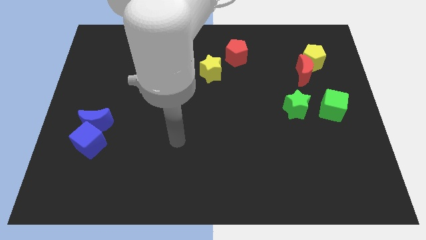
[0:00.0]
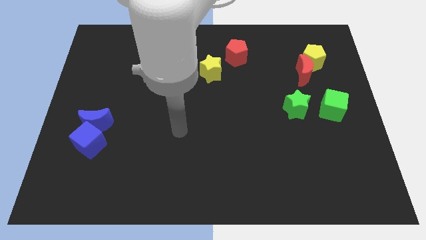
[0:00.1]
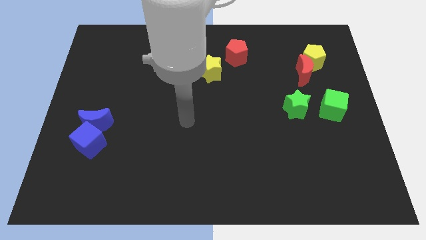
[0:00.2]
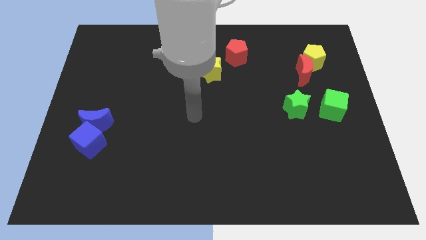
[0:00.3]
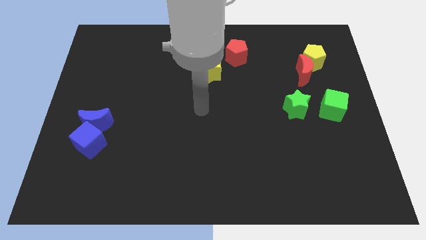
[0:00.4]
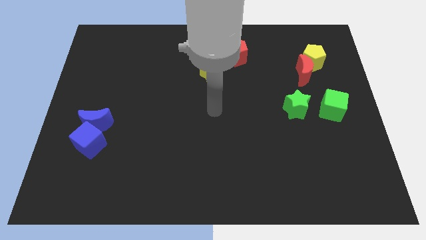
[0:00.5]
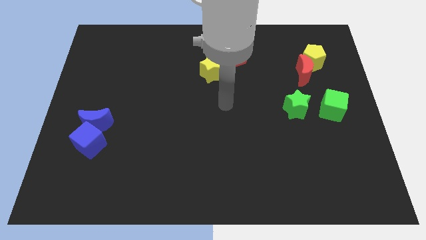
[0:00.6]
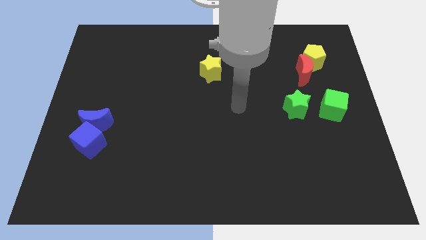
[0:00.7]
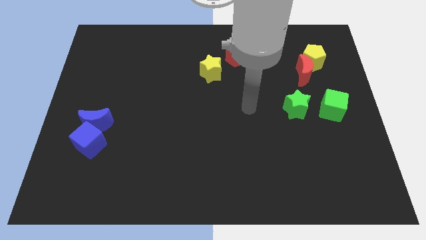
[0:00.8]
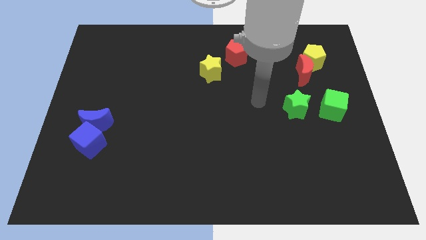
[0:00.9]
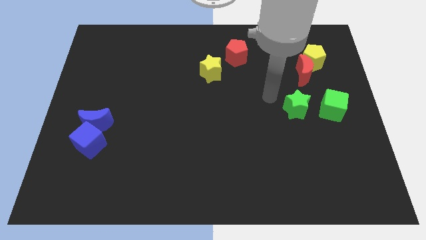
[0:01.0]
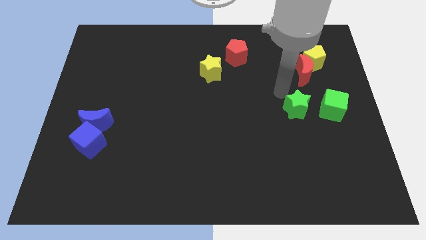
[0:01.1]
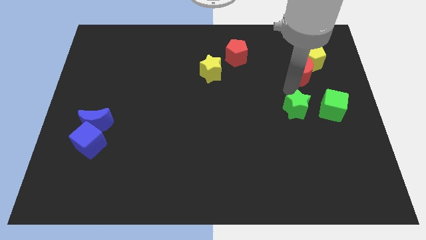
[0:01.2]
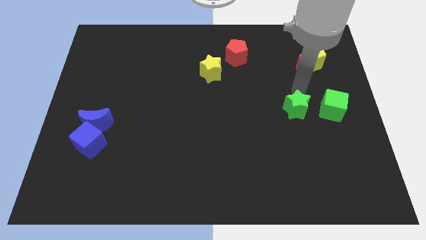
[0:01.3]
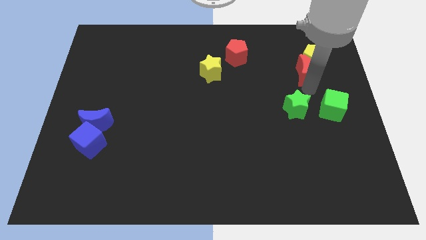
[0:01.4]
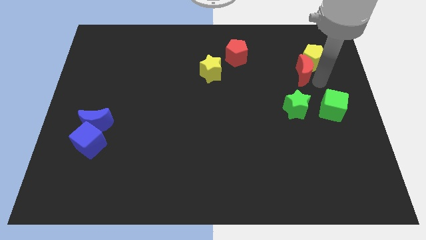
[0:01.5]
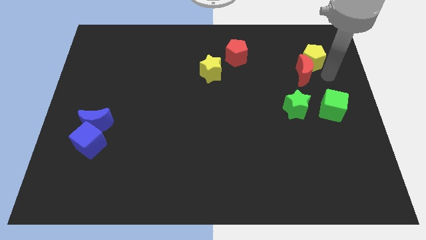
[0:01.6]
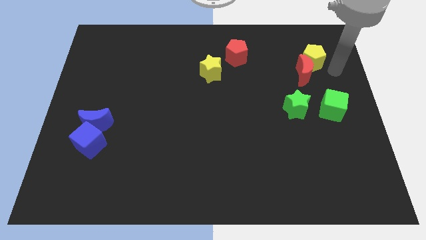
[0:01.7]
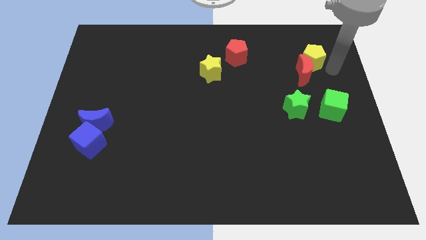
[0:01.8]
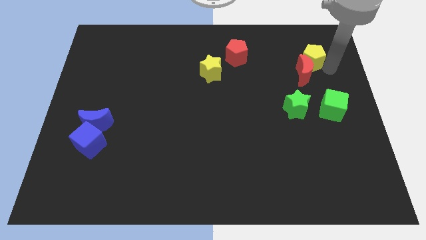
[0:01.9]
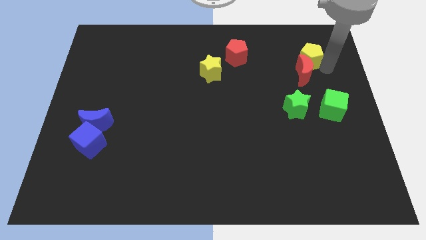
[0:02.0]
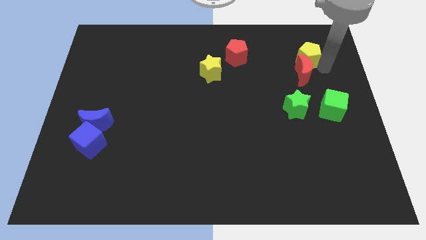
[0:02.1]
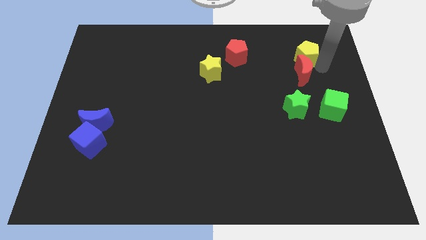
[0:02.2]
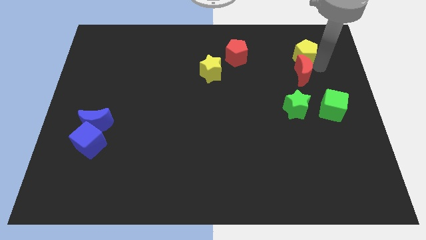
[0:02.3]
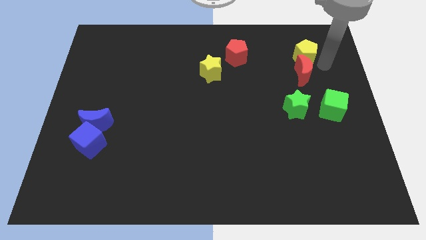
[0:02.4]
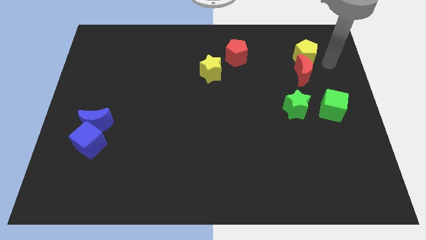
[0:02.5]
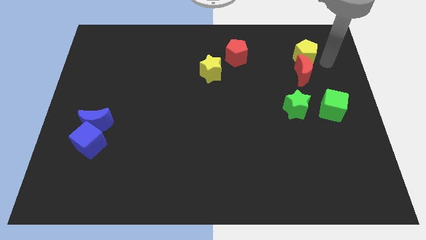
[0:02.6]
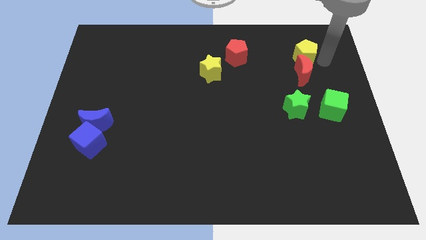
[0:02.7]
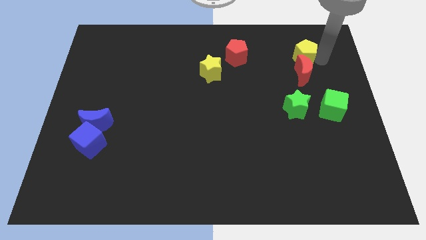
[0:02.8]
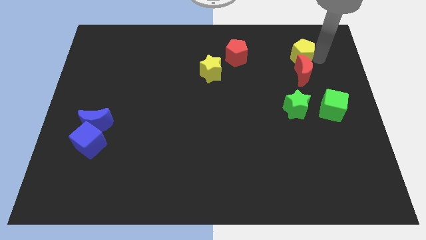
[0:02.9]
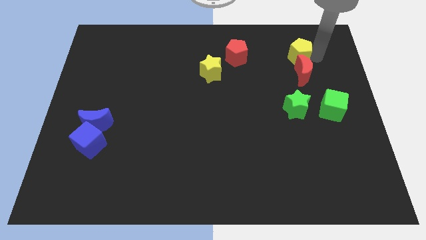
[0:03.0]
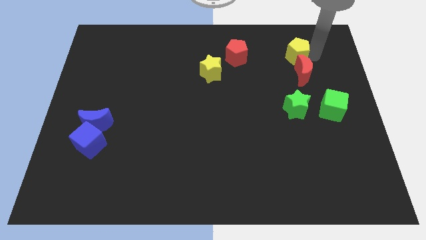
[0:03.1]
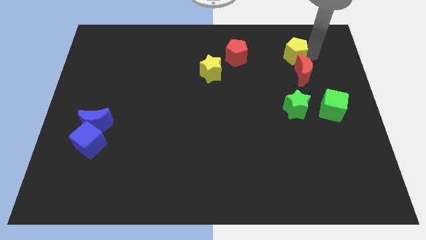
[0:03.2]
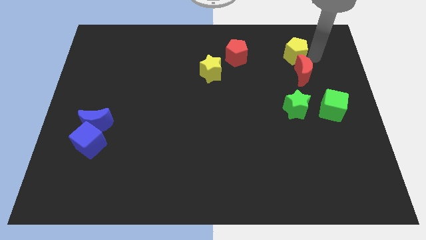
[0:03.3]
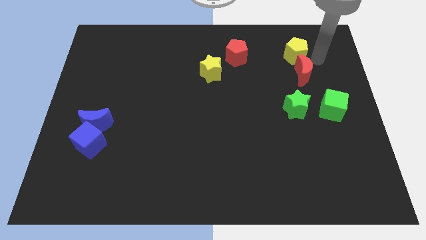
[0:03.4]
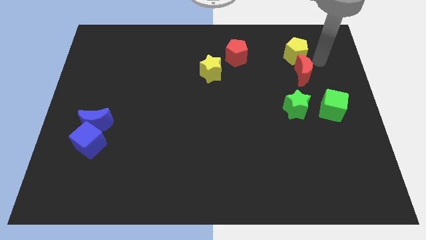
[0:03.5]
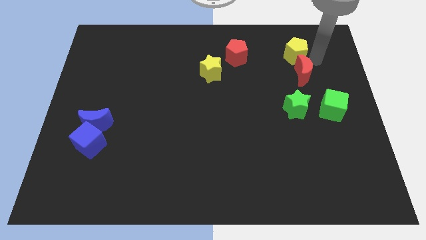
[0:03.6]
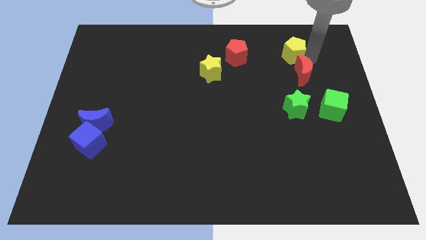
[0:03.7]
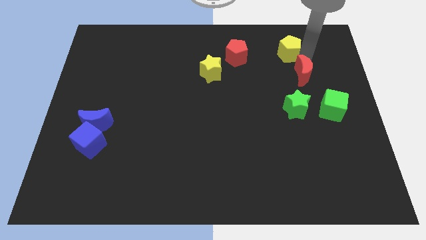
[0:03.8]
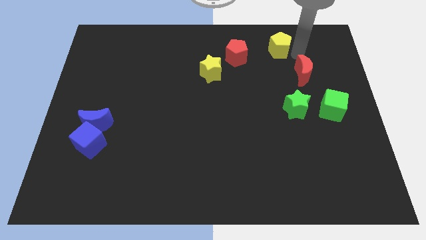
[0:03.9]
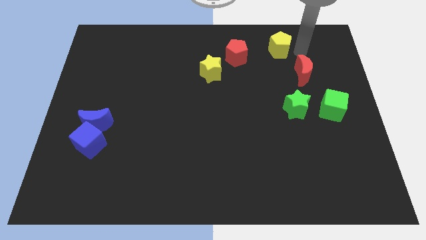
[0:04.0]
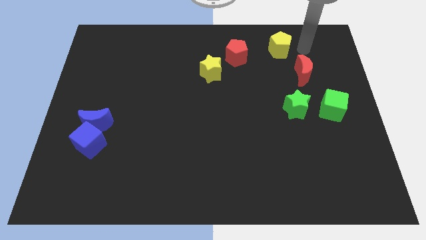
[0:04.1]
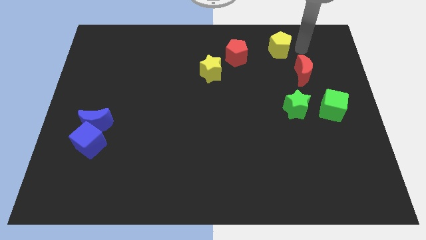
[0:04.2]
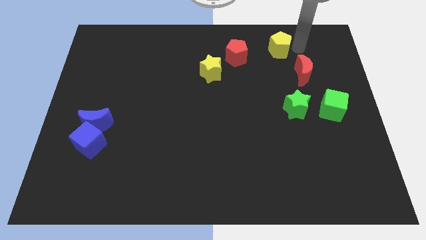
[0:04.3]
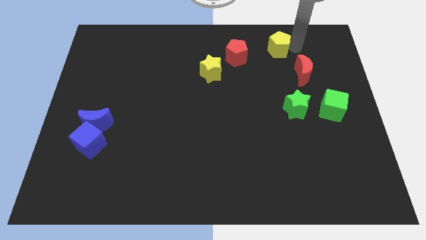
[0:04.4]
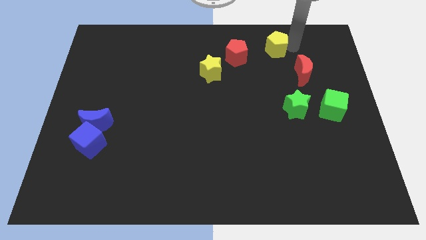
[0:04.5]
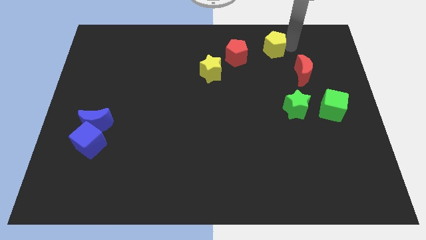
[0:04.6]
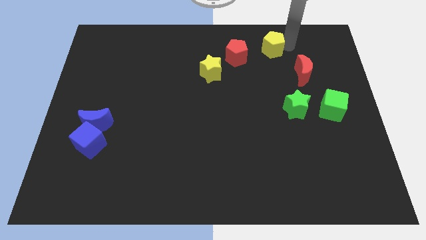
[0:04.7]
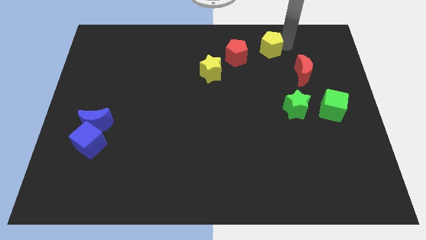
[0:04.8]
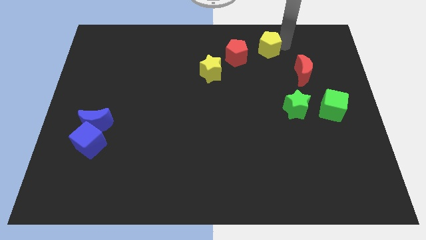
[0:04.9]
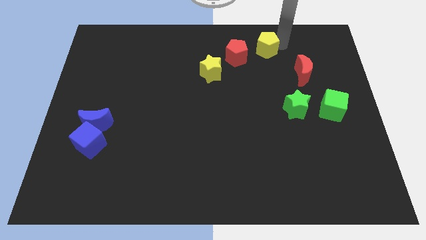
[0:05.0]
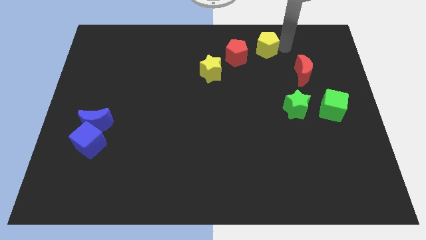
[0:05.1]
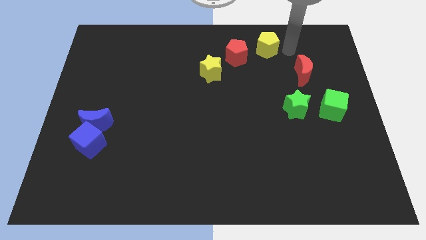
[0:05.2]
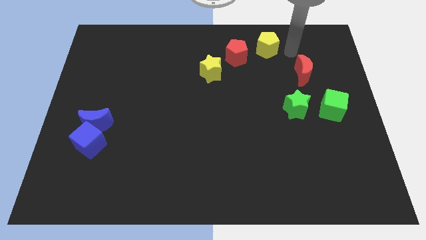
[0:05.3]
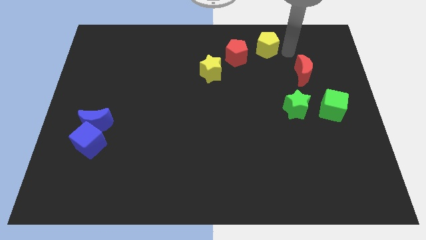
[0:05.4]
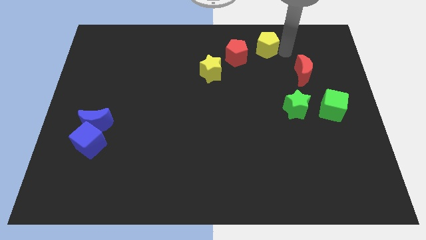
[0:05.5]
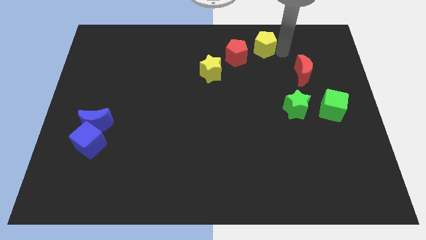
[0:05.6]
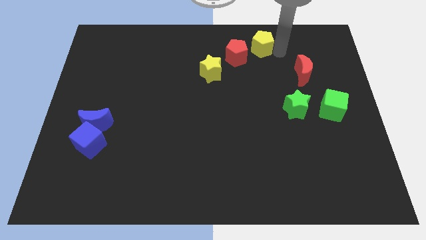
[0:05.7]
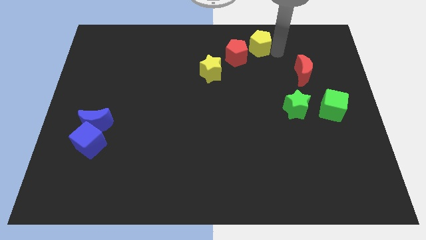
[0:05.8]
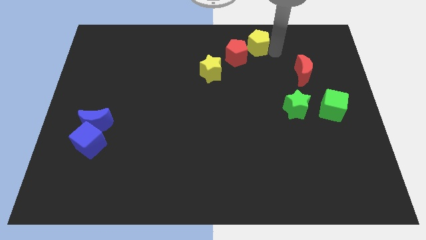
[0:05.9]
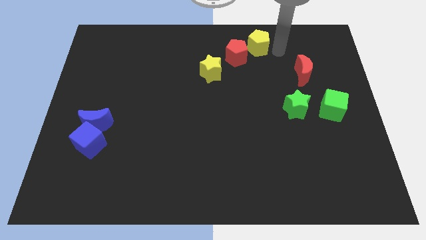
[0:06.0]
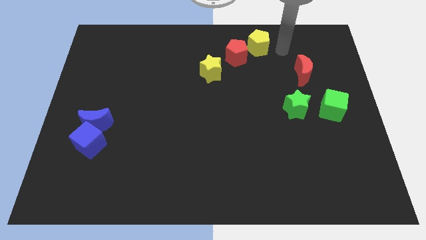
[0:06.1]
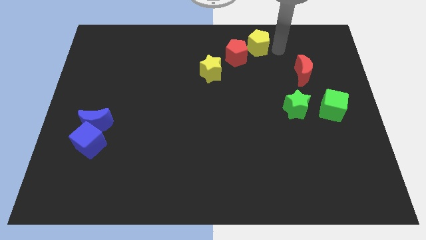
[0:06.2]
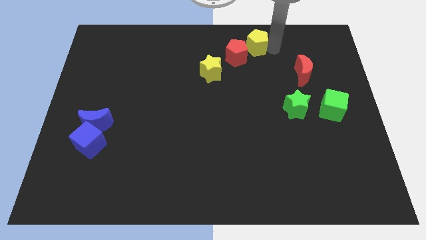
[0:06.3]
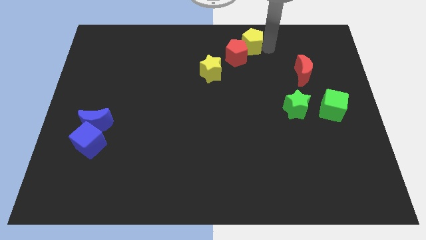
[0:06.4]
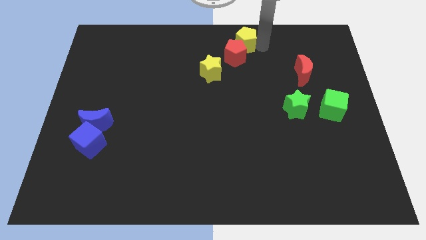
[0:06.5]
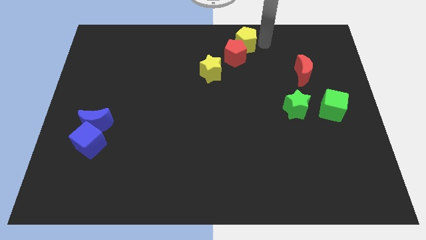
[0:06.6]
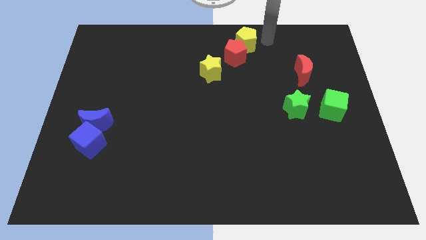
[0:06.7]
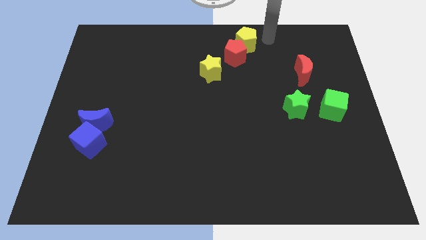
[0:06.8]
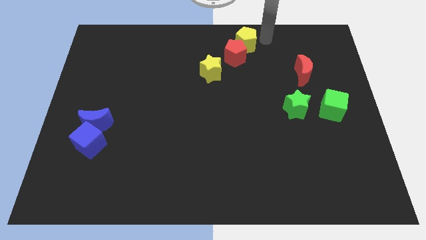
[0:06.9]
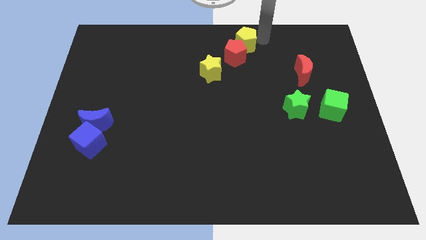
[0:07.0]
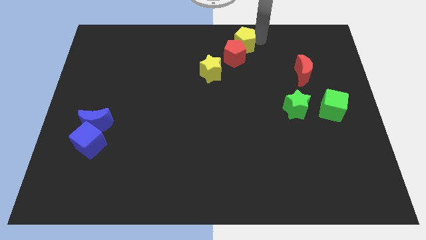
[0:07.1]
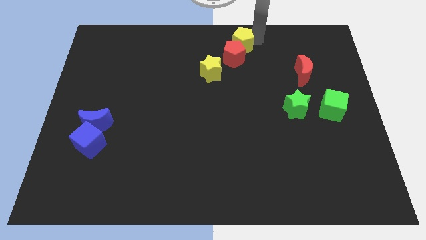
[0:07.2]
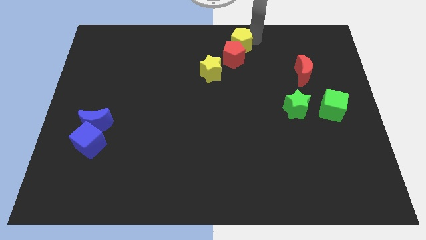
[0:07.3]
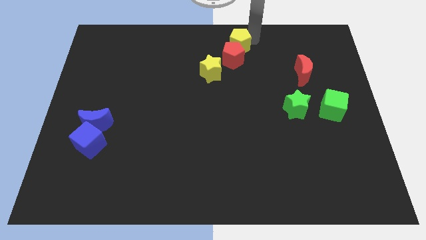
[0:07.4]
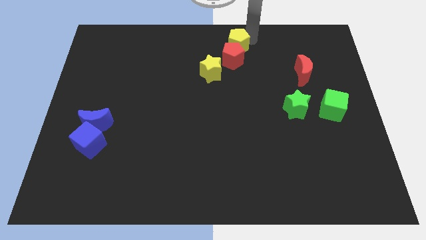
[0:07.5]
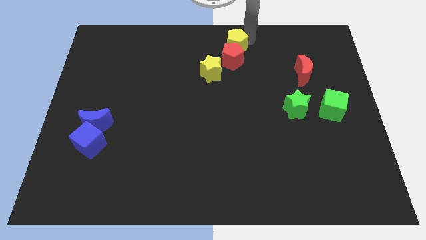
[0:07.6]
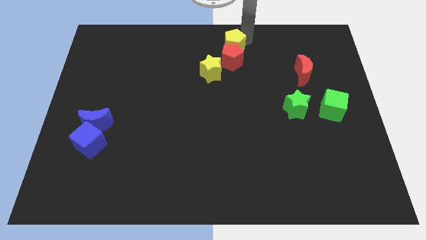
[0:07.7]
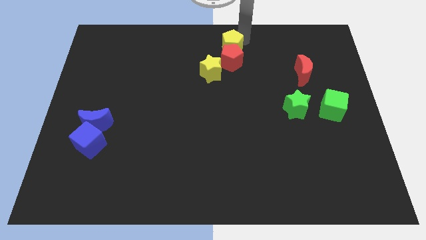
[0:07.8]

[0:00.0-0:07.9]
slide the yellow pentagon to the left

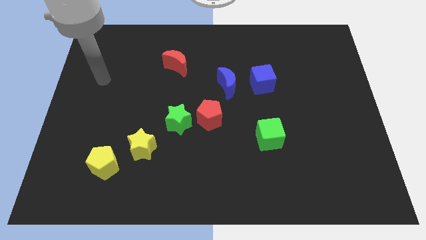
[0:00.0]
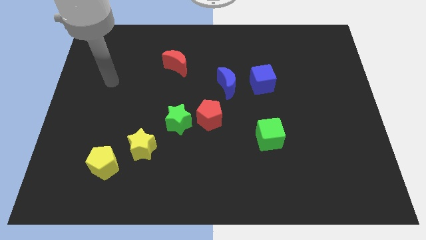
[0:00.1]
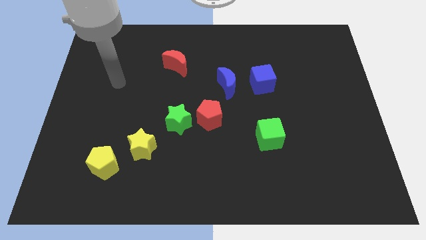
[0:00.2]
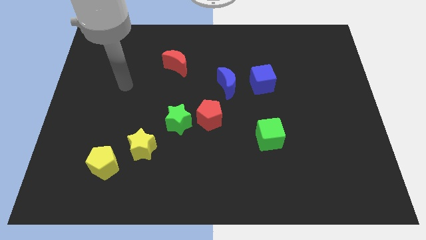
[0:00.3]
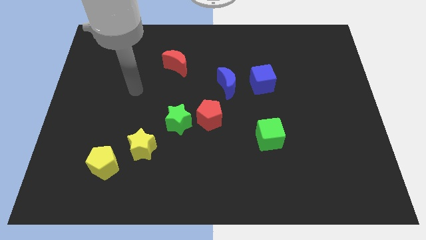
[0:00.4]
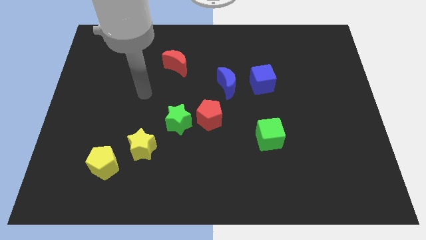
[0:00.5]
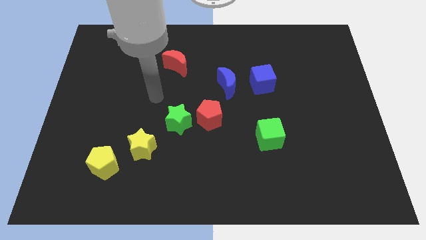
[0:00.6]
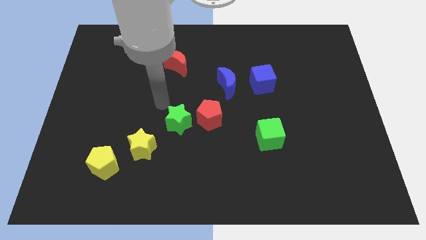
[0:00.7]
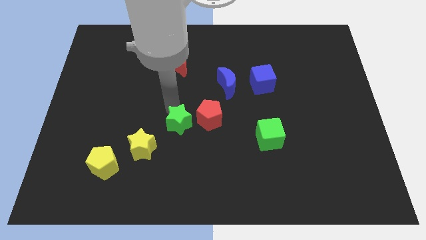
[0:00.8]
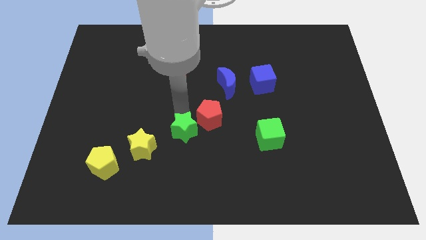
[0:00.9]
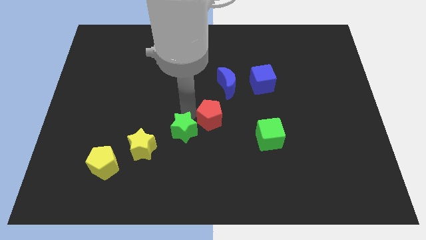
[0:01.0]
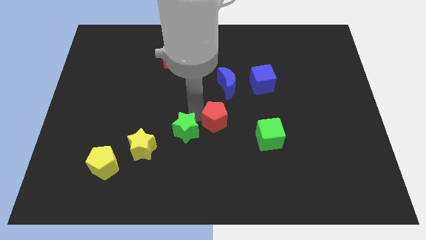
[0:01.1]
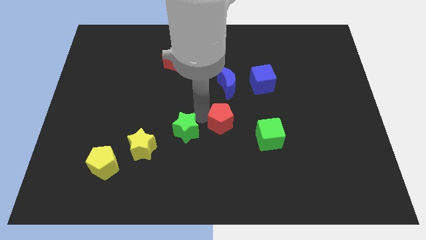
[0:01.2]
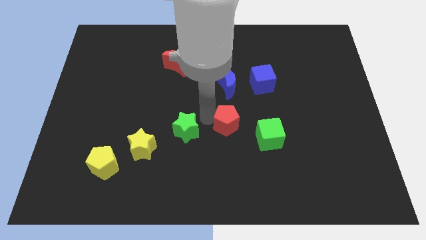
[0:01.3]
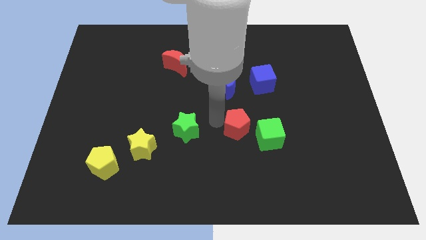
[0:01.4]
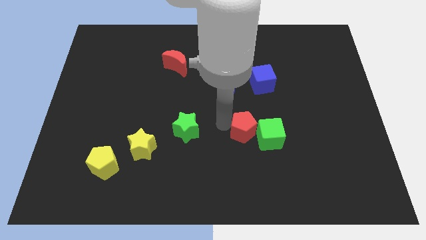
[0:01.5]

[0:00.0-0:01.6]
push the red pentagon slightly right
